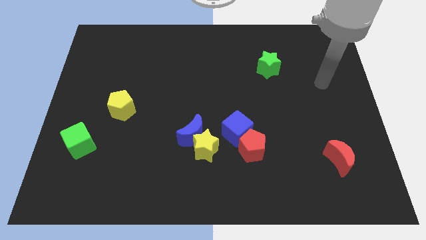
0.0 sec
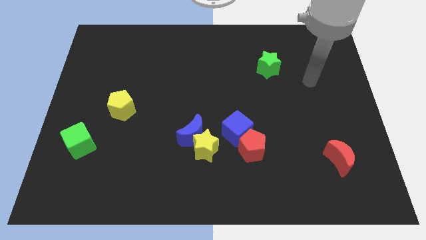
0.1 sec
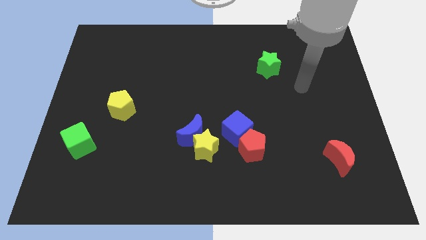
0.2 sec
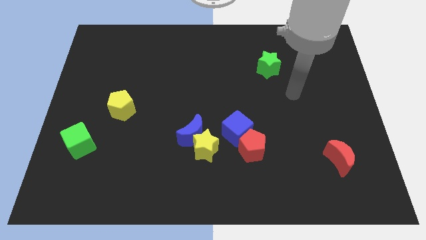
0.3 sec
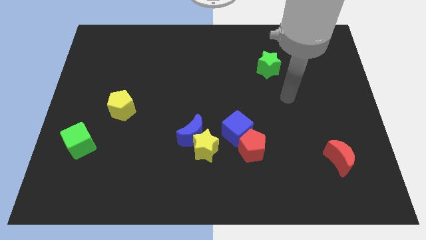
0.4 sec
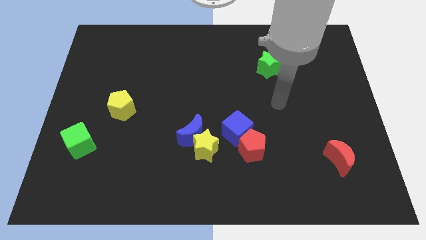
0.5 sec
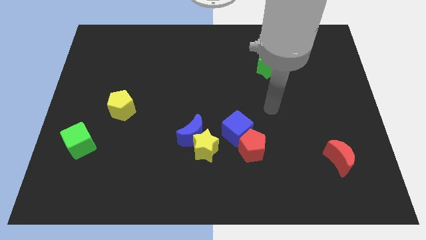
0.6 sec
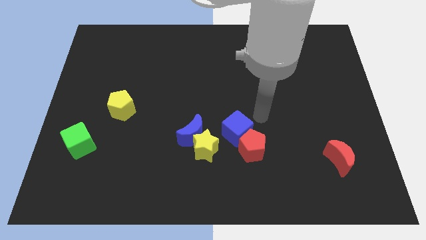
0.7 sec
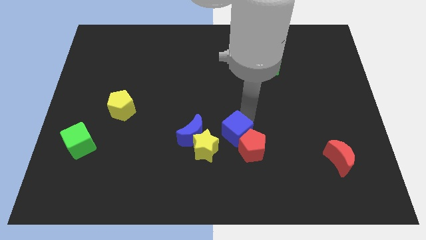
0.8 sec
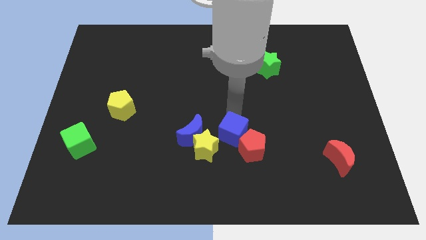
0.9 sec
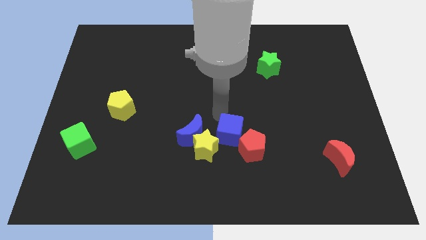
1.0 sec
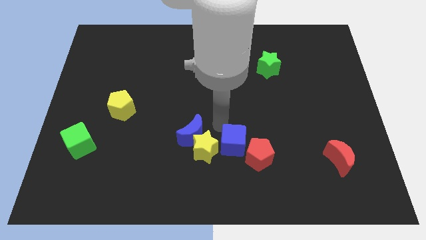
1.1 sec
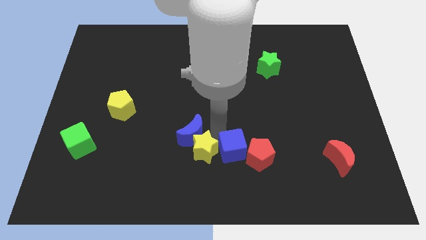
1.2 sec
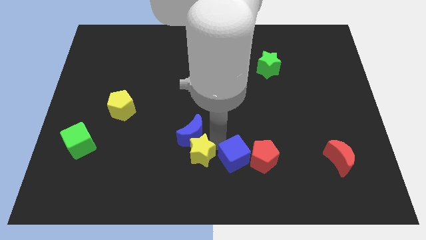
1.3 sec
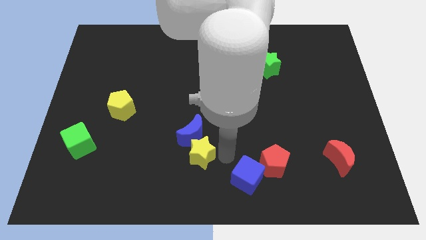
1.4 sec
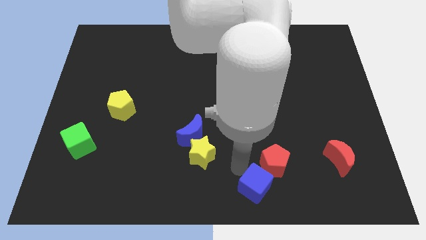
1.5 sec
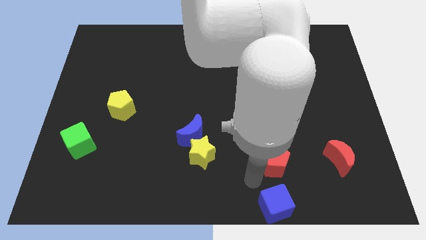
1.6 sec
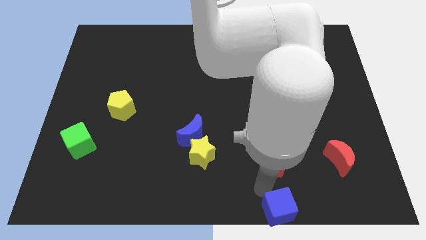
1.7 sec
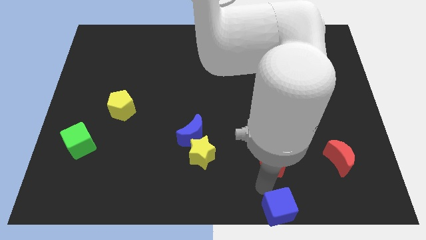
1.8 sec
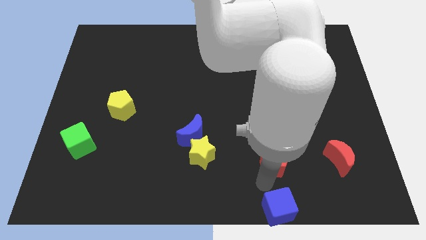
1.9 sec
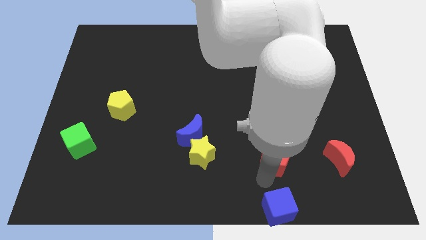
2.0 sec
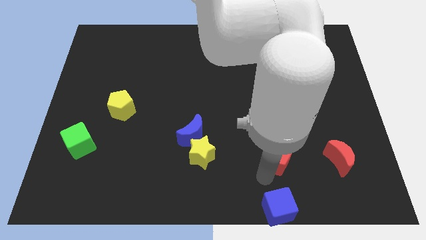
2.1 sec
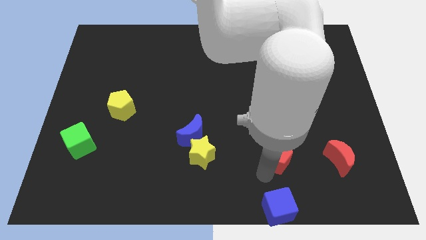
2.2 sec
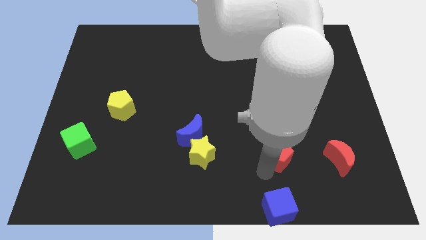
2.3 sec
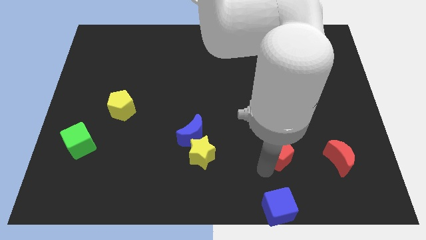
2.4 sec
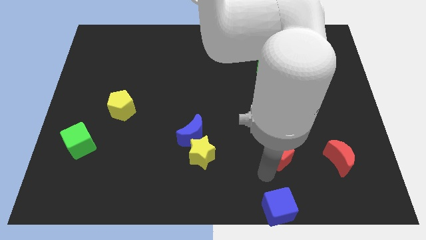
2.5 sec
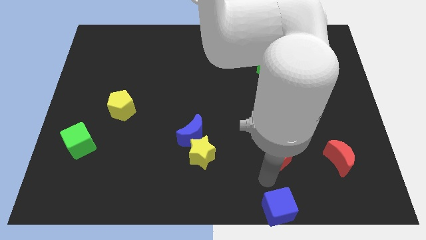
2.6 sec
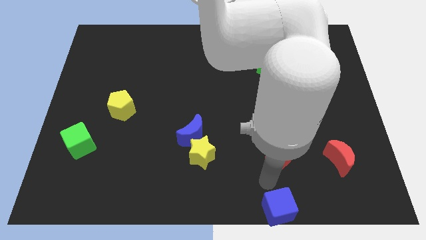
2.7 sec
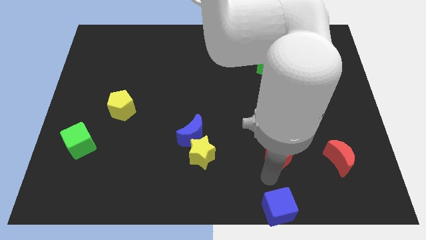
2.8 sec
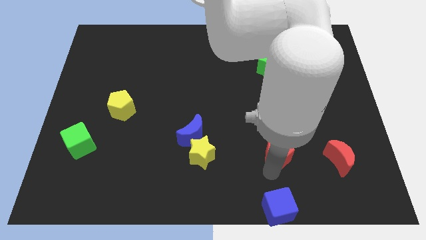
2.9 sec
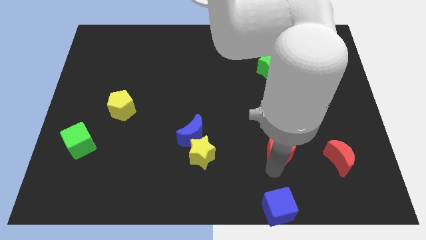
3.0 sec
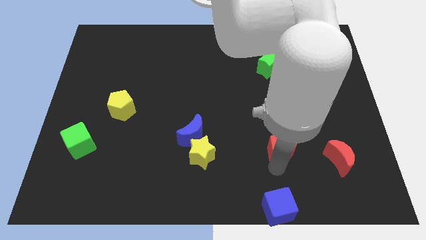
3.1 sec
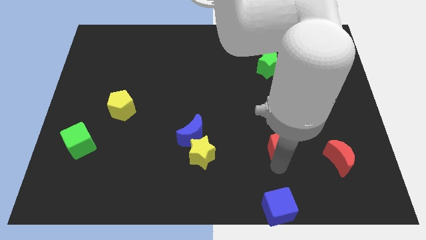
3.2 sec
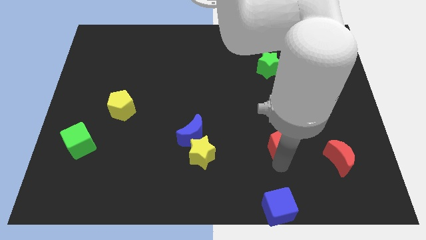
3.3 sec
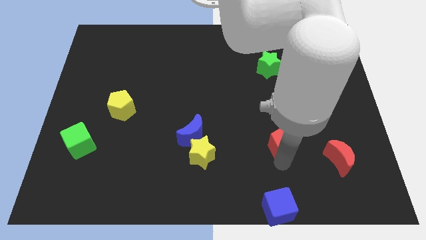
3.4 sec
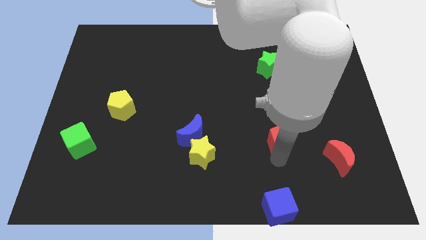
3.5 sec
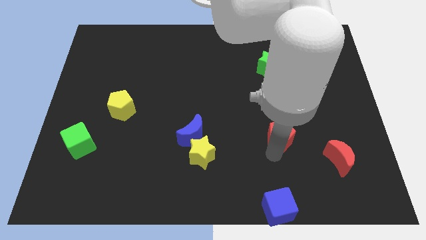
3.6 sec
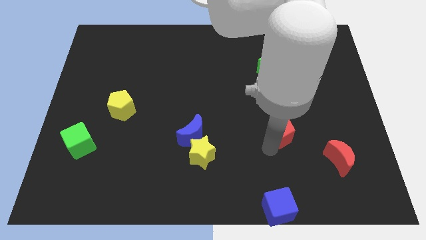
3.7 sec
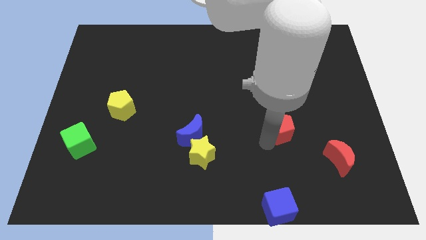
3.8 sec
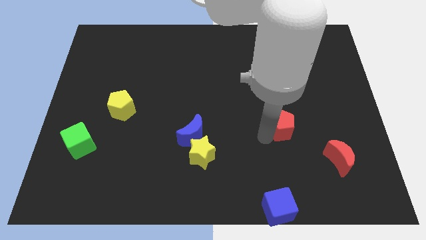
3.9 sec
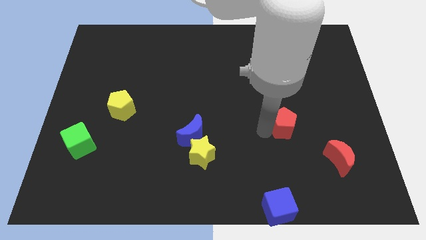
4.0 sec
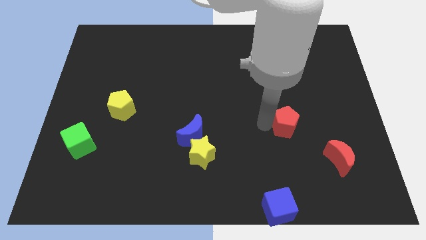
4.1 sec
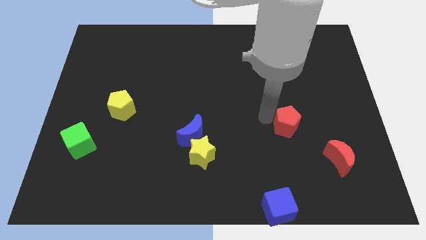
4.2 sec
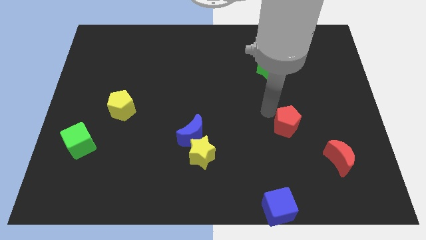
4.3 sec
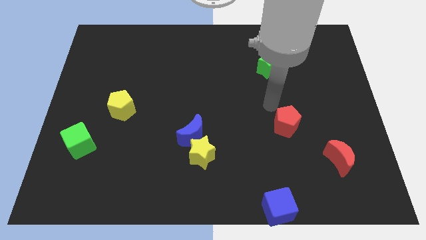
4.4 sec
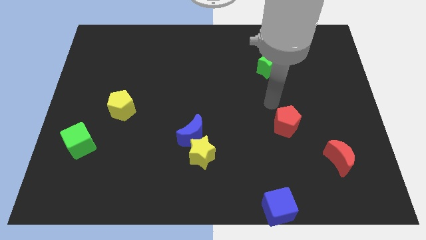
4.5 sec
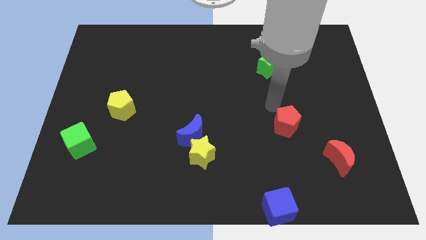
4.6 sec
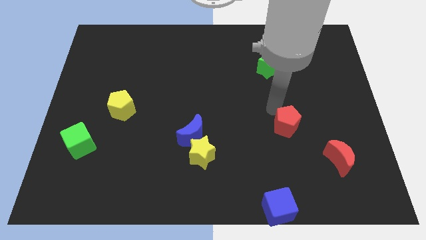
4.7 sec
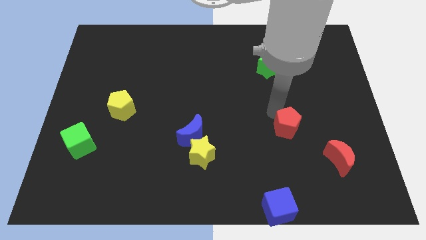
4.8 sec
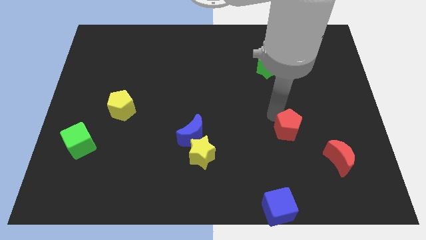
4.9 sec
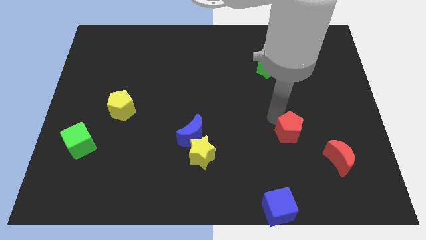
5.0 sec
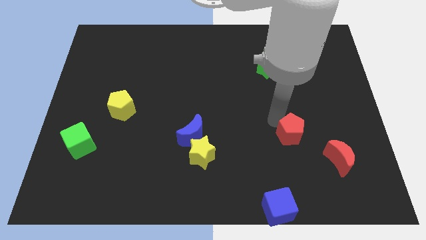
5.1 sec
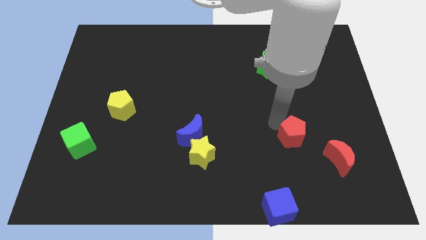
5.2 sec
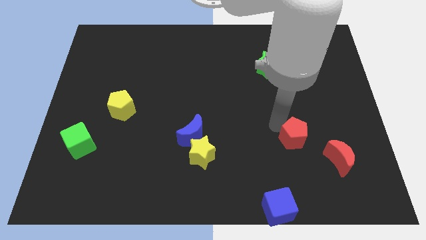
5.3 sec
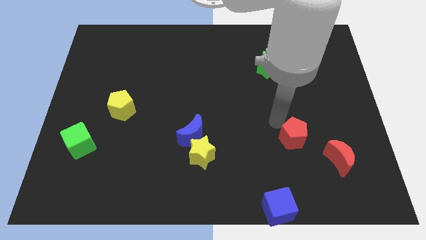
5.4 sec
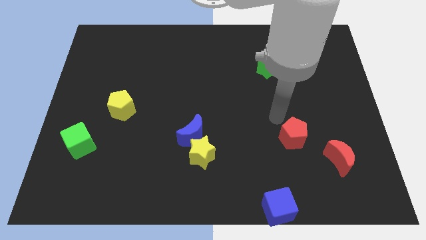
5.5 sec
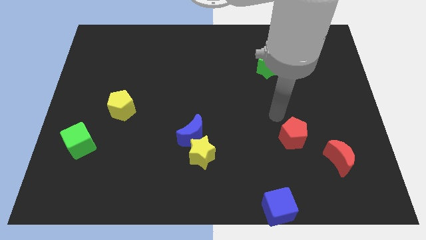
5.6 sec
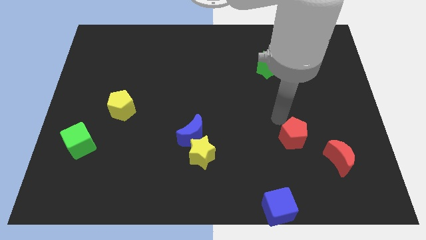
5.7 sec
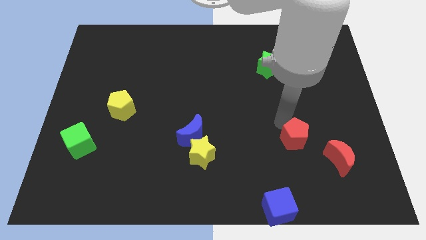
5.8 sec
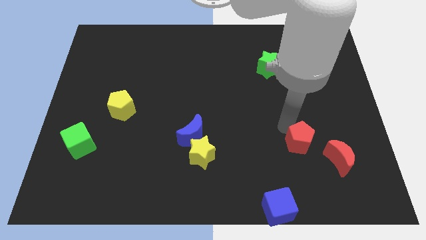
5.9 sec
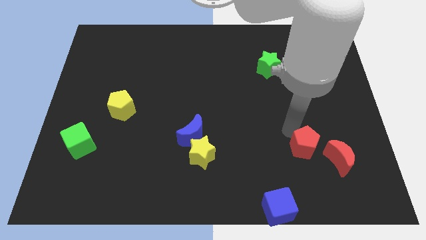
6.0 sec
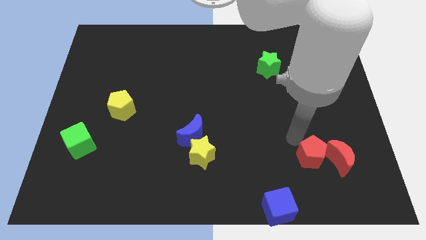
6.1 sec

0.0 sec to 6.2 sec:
push the red pentagon next to the red moon

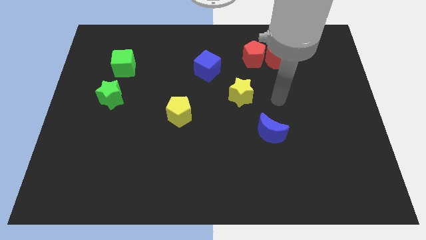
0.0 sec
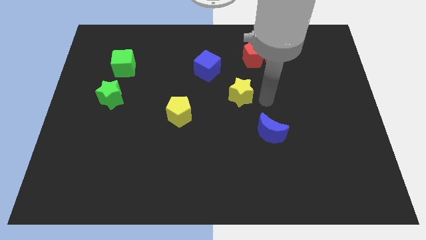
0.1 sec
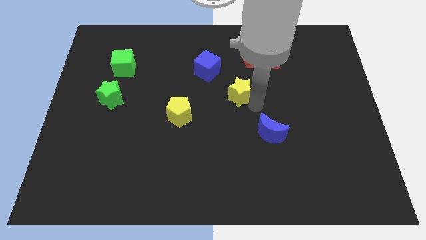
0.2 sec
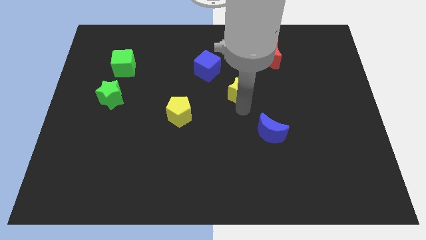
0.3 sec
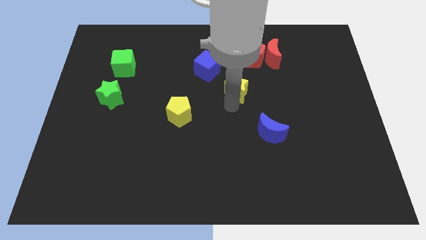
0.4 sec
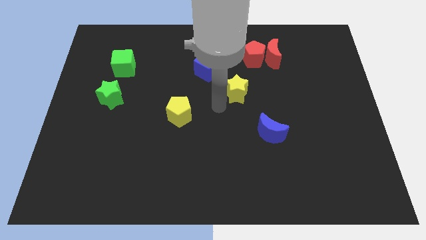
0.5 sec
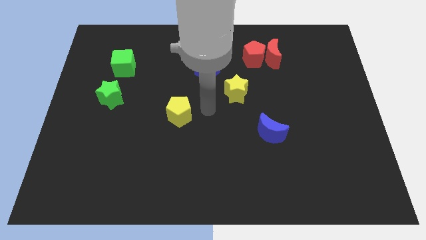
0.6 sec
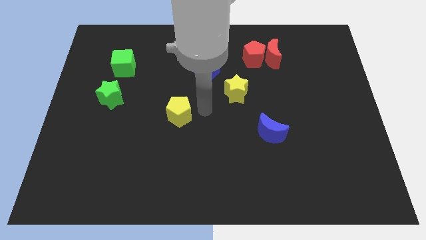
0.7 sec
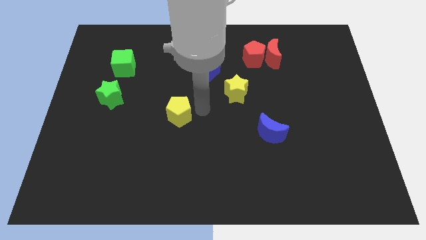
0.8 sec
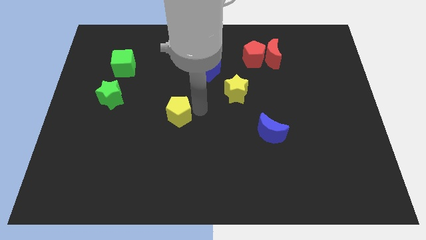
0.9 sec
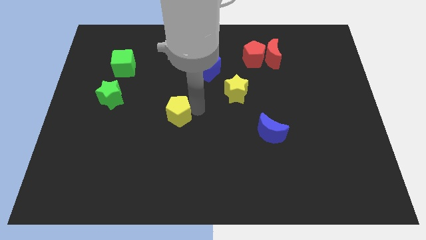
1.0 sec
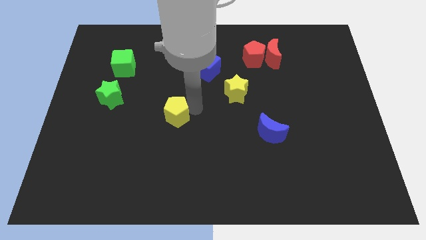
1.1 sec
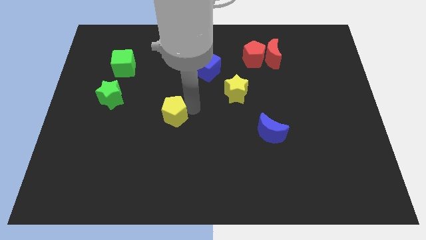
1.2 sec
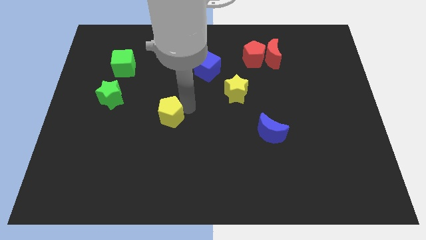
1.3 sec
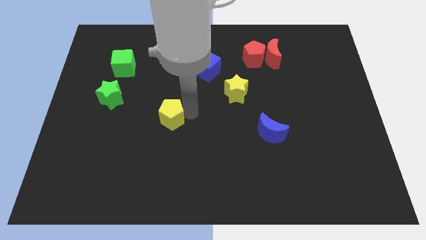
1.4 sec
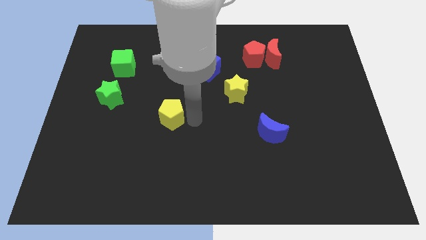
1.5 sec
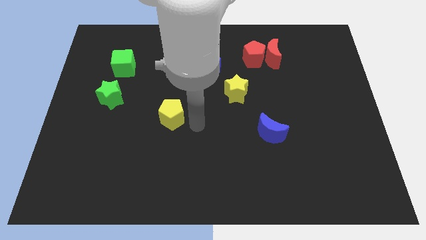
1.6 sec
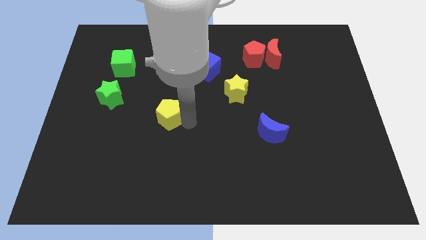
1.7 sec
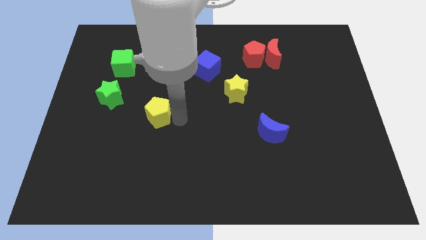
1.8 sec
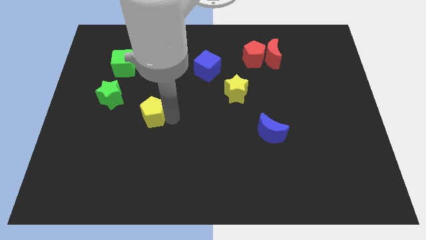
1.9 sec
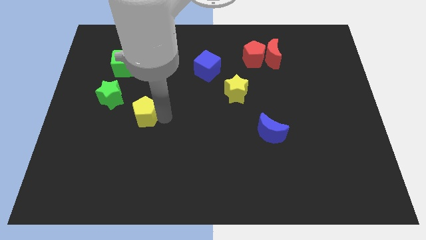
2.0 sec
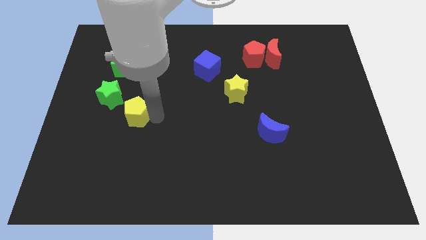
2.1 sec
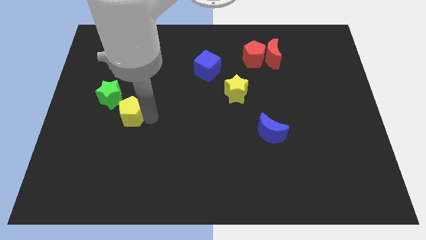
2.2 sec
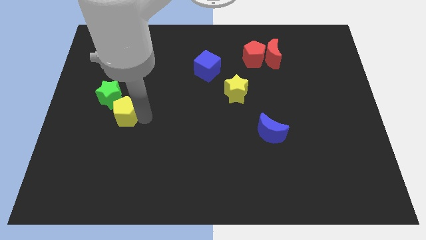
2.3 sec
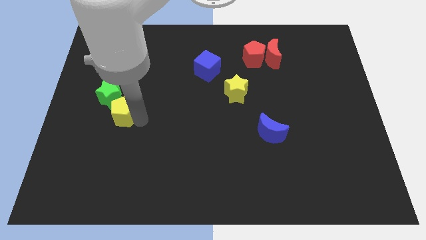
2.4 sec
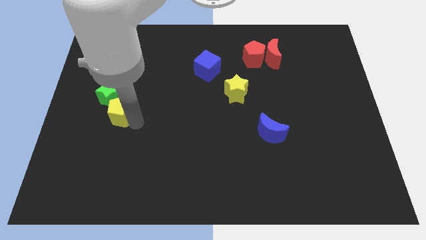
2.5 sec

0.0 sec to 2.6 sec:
move the yellow pentagon next to the green star
